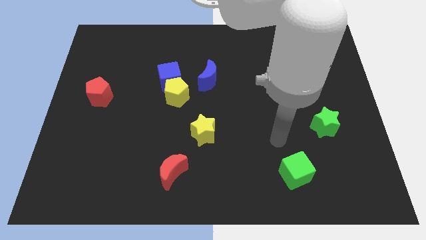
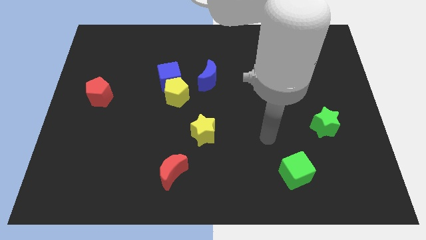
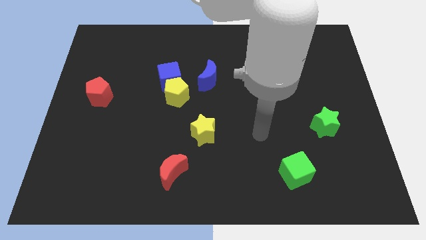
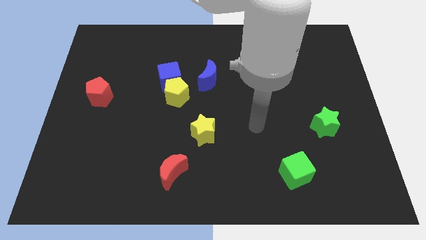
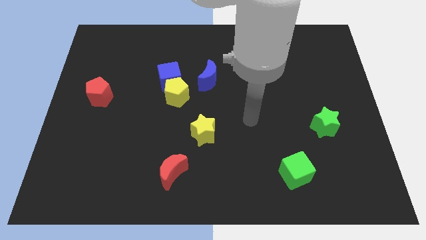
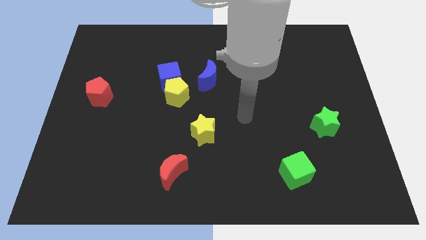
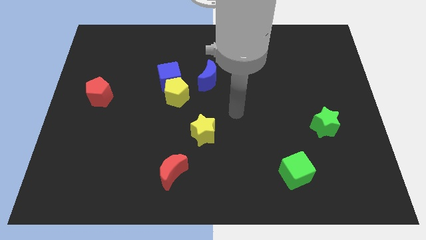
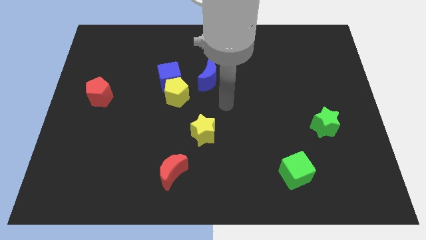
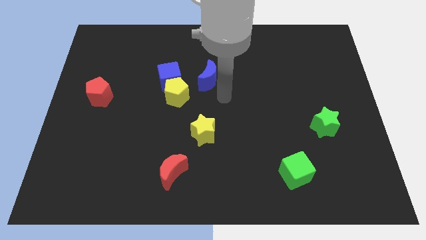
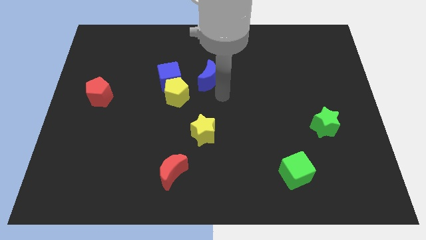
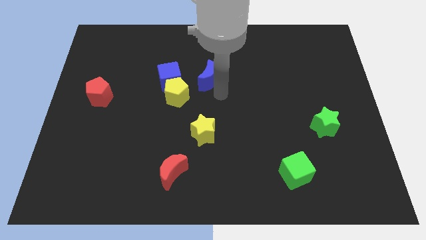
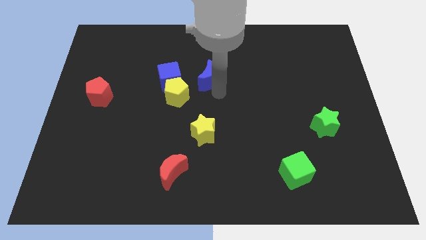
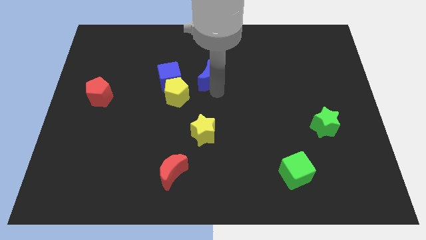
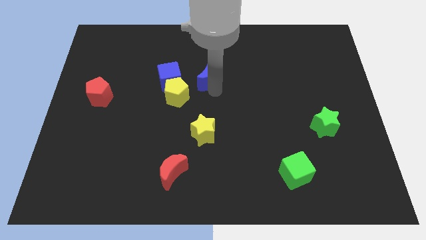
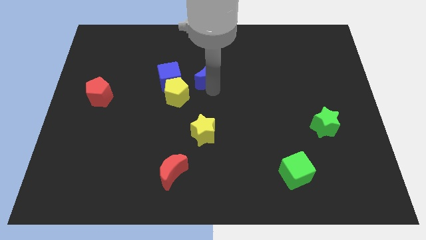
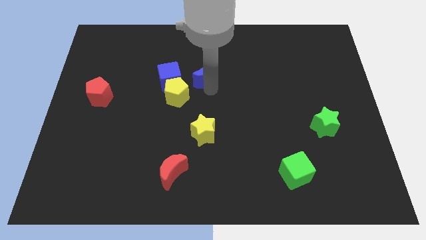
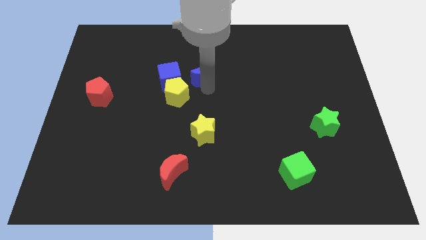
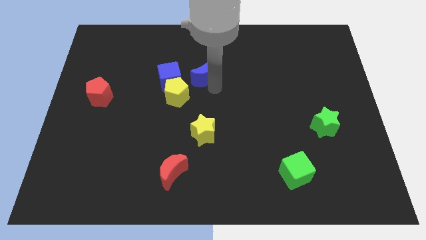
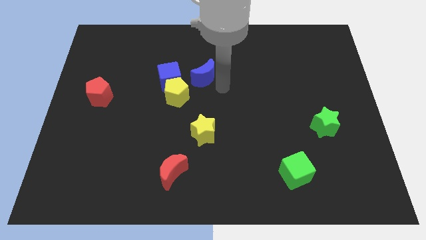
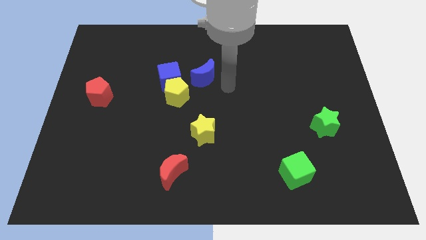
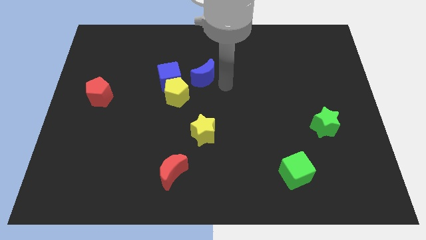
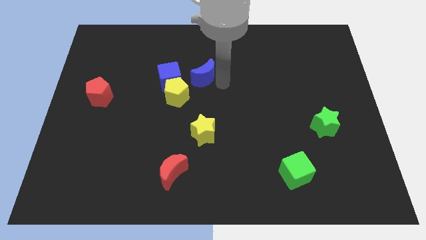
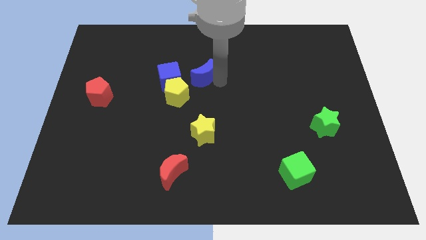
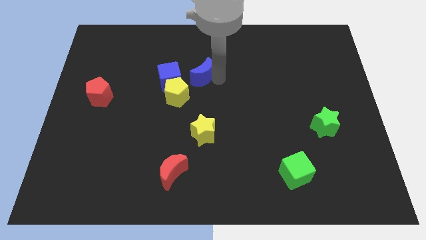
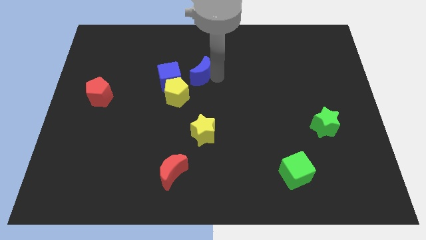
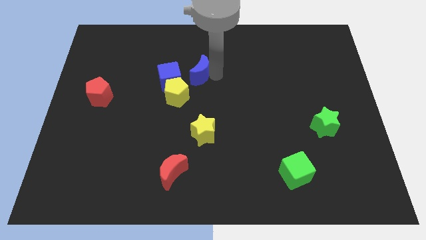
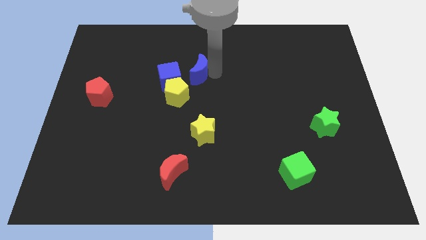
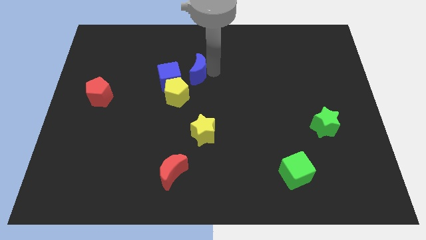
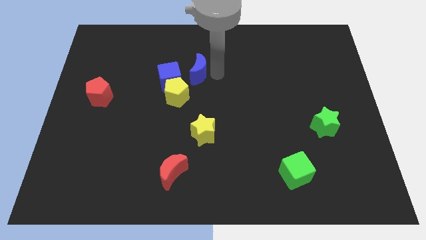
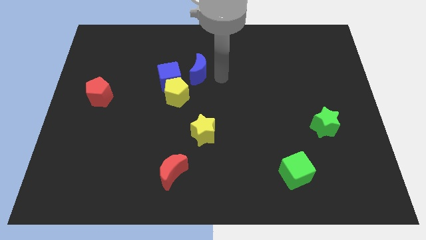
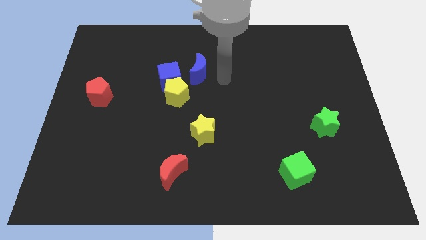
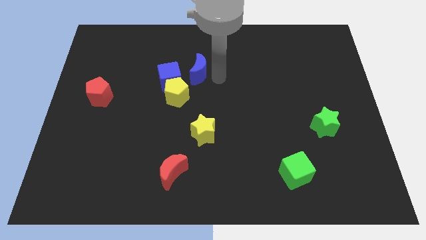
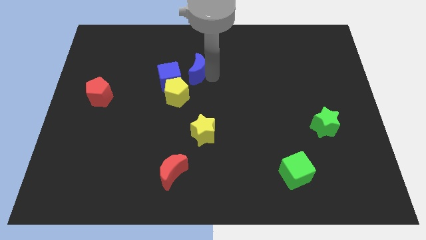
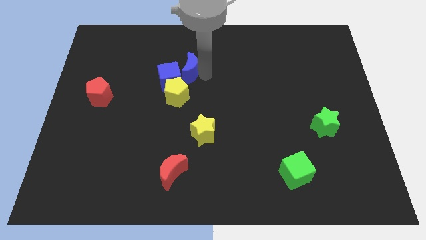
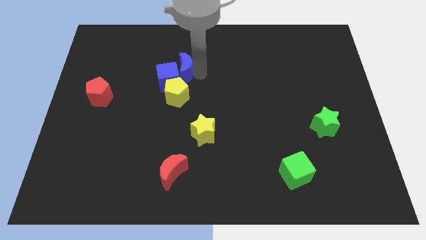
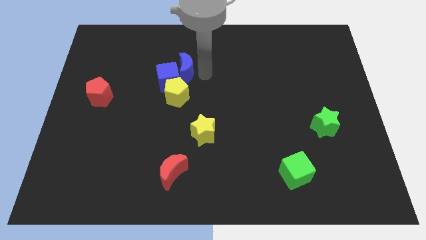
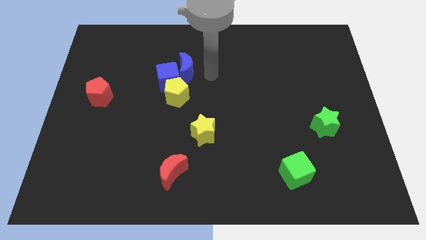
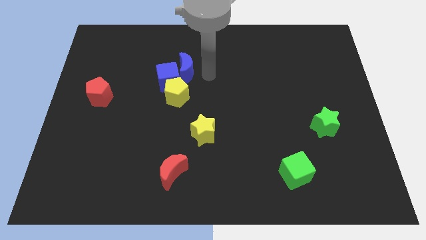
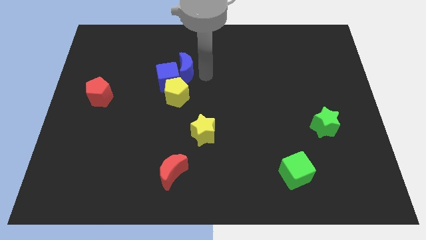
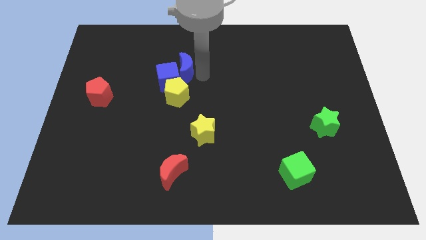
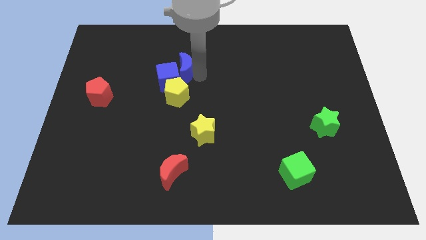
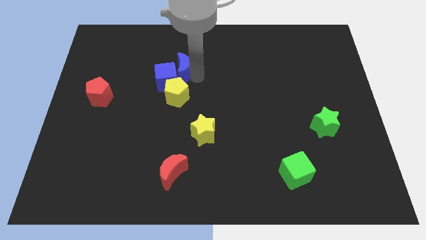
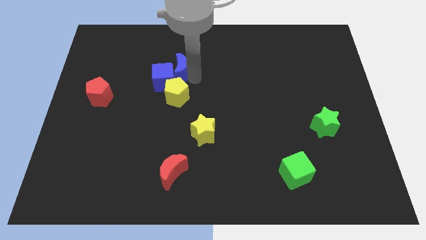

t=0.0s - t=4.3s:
slightly push the blue moon left

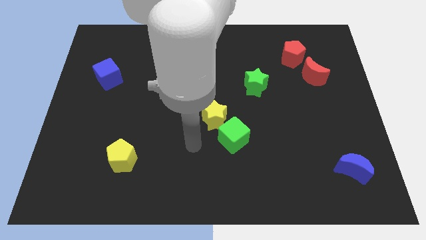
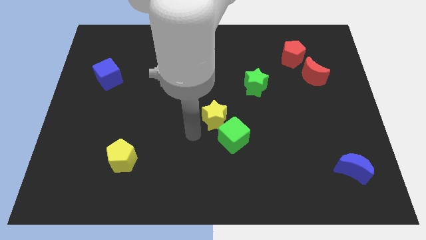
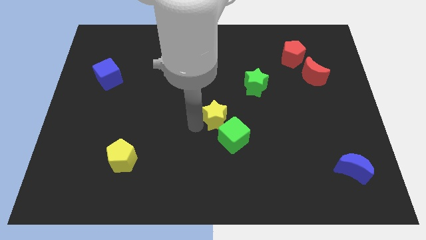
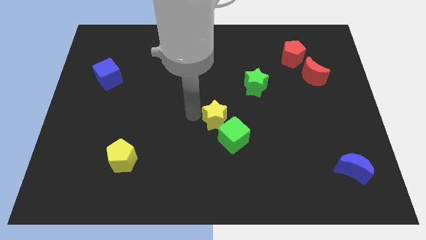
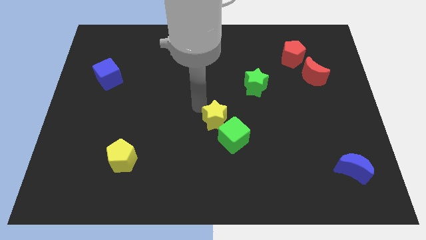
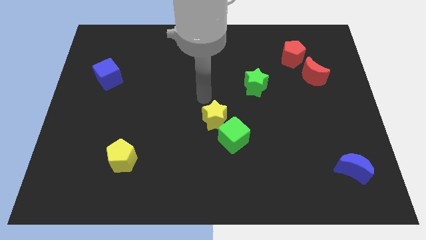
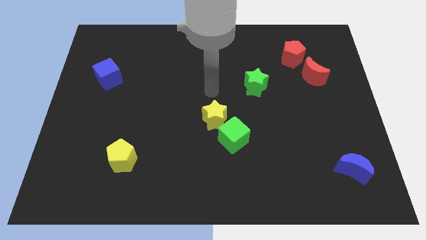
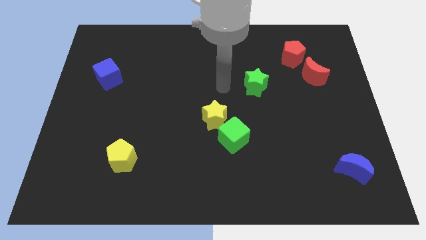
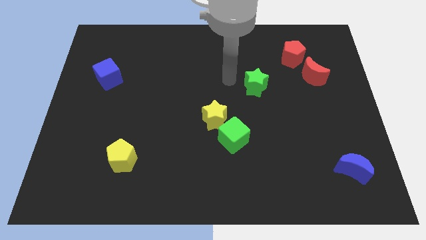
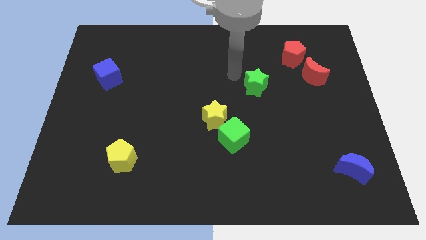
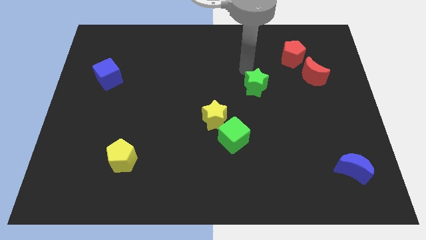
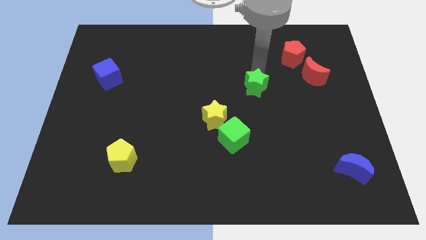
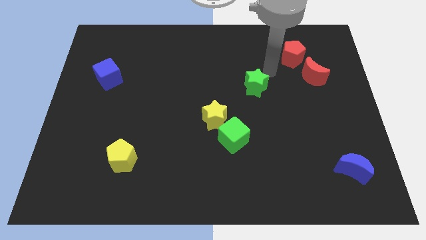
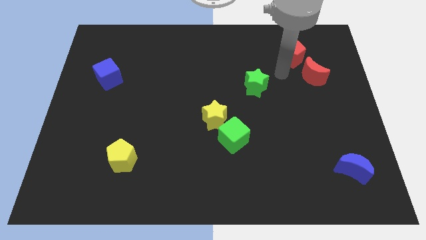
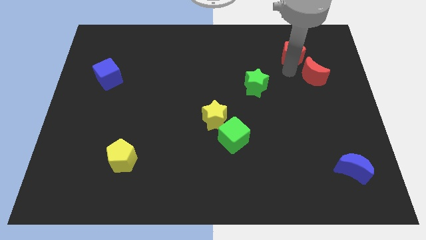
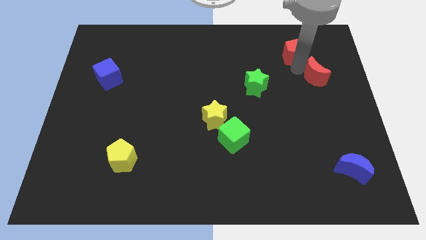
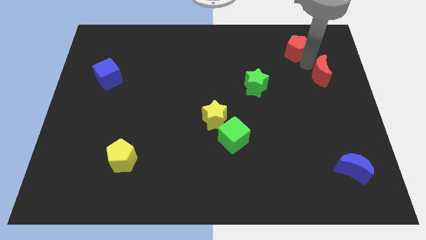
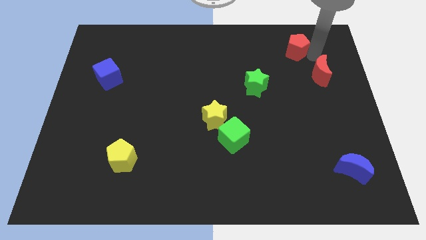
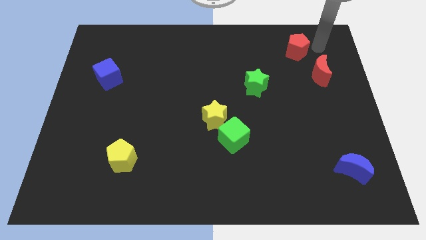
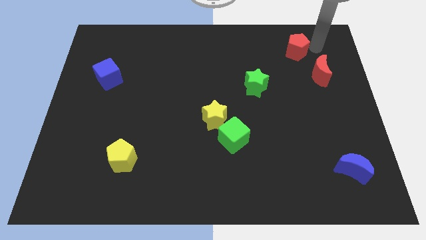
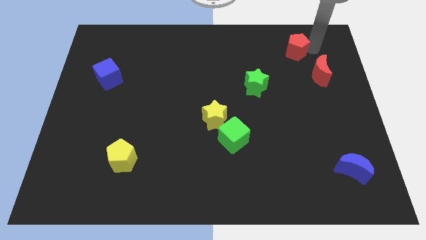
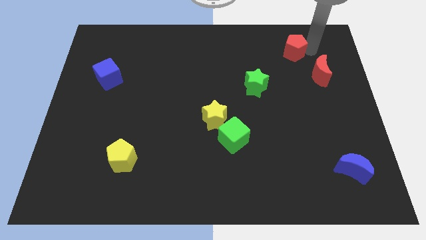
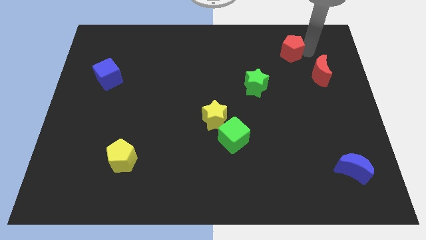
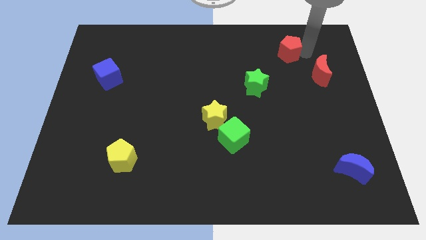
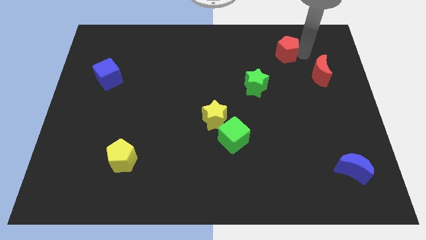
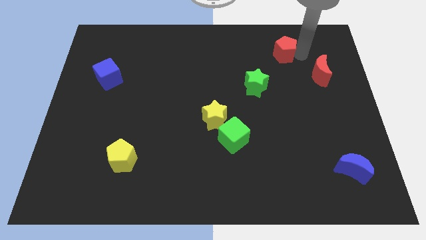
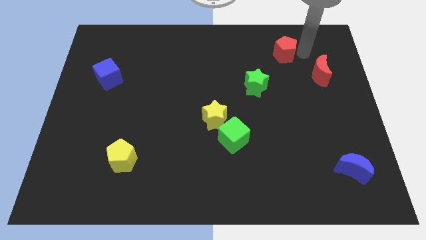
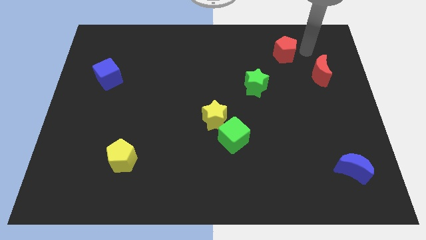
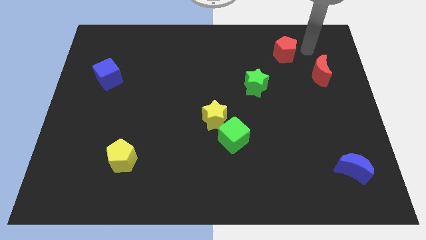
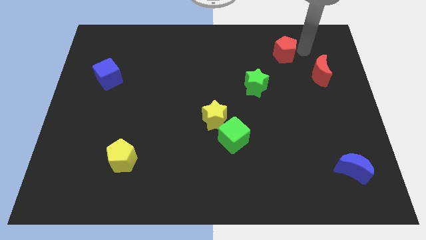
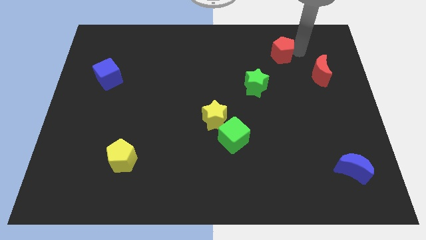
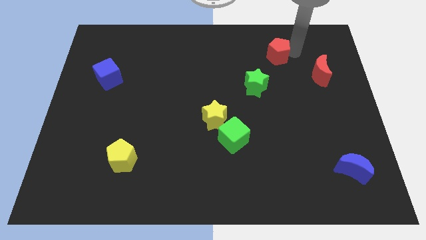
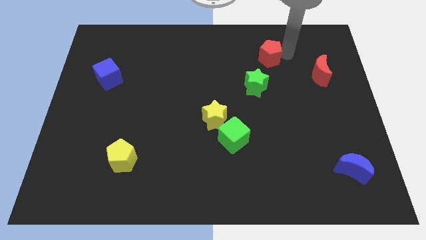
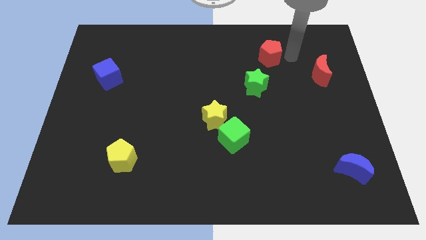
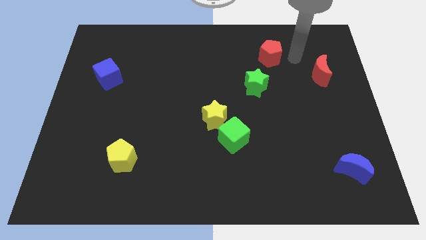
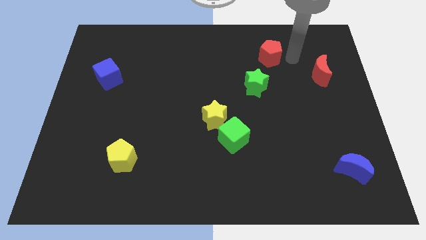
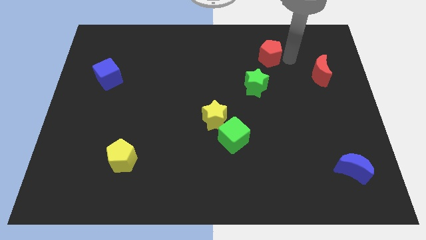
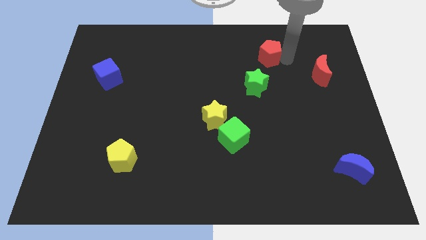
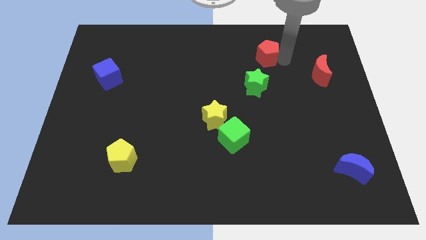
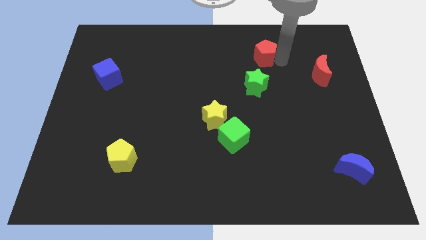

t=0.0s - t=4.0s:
slightly move the red pentagon left
